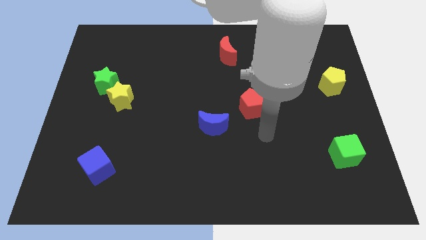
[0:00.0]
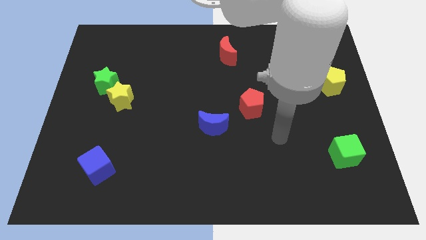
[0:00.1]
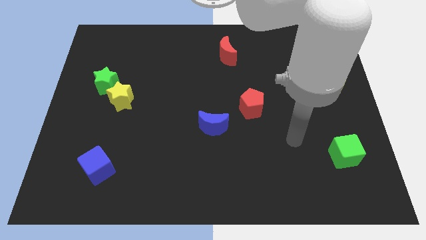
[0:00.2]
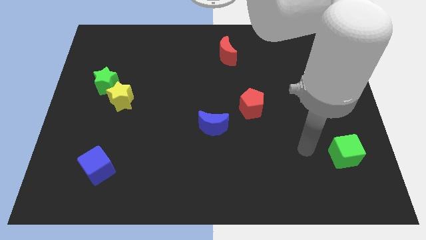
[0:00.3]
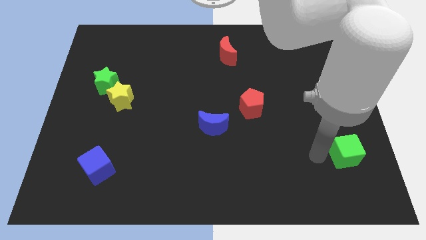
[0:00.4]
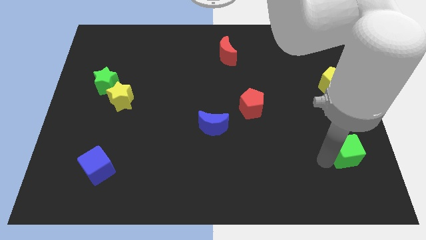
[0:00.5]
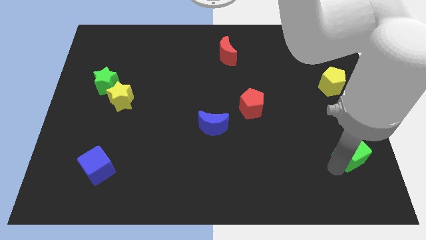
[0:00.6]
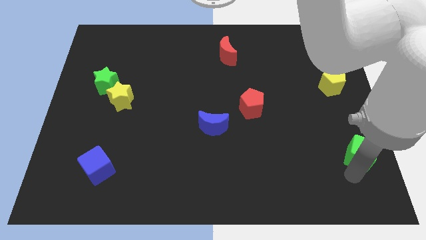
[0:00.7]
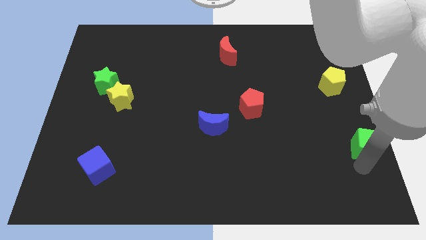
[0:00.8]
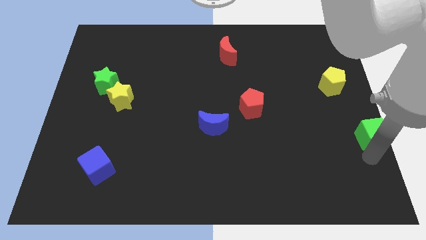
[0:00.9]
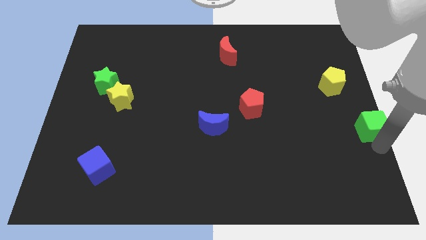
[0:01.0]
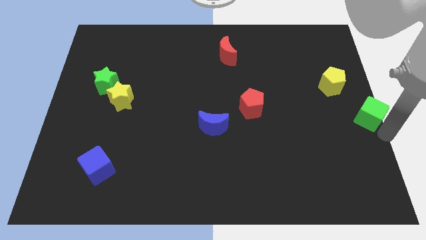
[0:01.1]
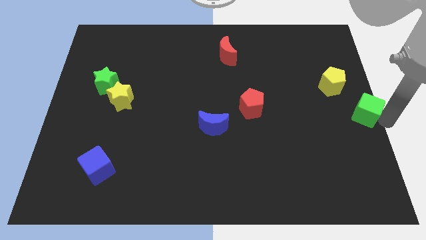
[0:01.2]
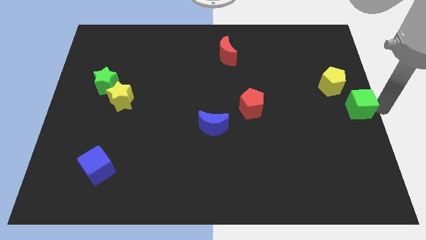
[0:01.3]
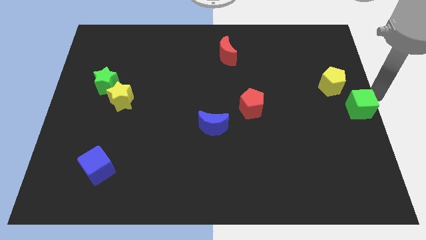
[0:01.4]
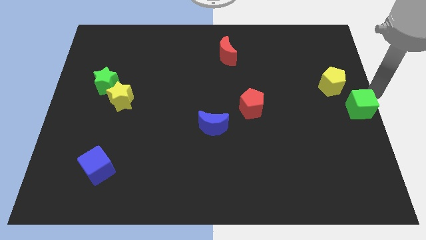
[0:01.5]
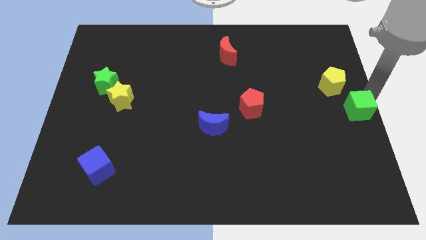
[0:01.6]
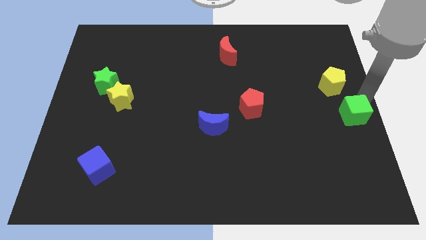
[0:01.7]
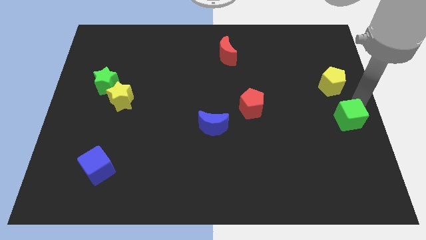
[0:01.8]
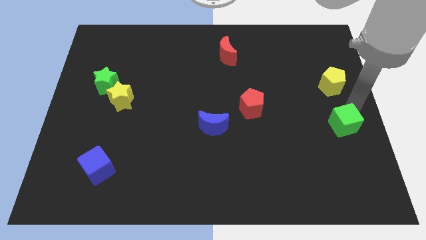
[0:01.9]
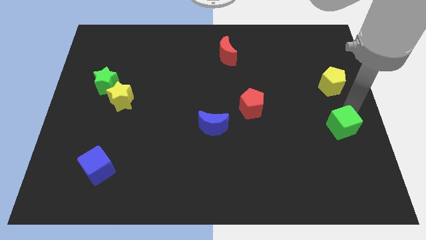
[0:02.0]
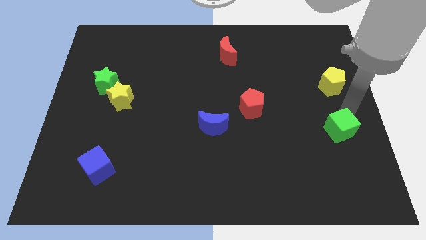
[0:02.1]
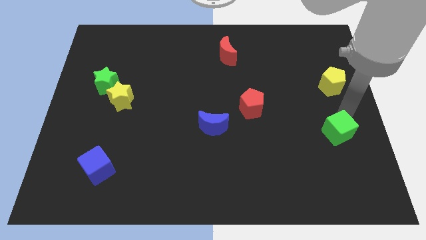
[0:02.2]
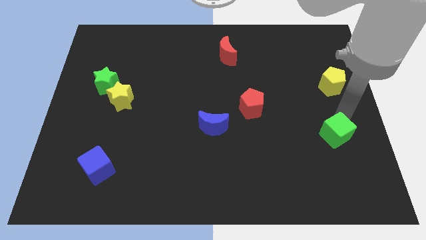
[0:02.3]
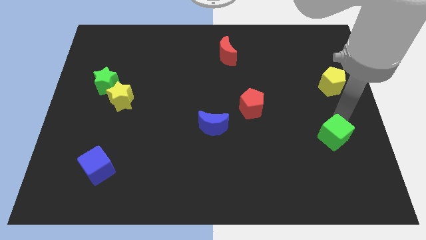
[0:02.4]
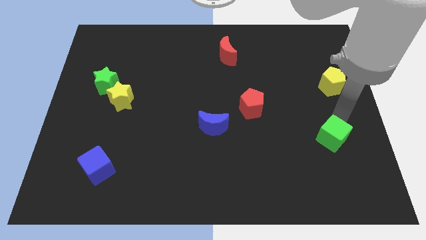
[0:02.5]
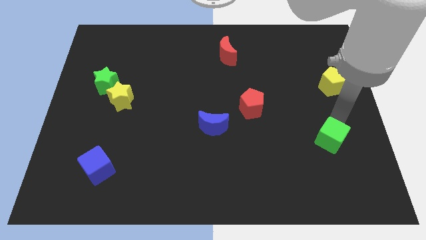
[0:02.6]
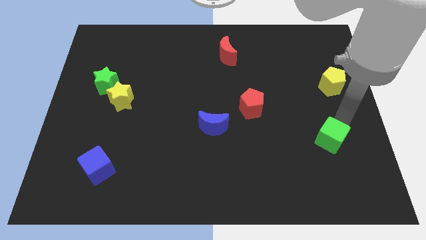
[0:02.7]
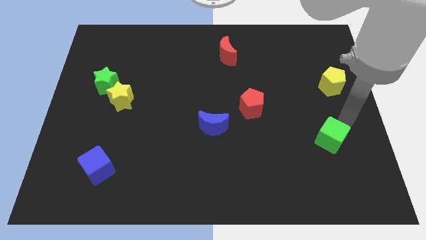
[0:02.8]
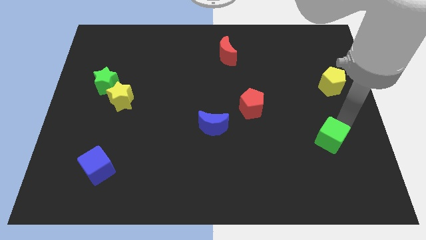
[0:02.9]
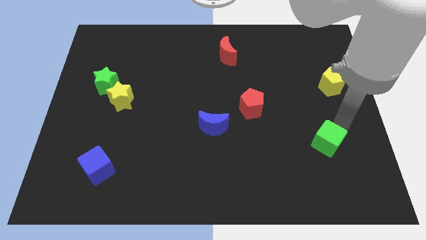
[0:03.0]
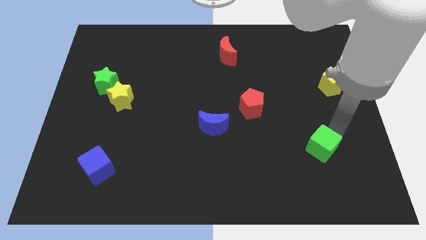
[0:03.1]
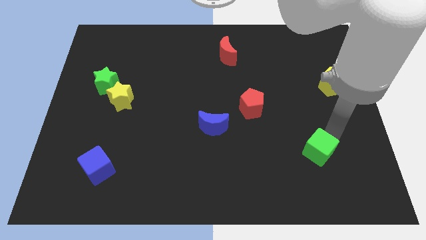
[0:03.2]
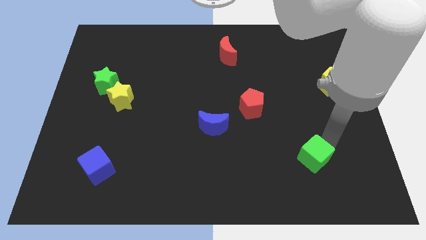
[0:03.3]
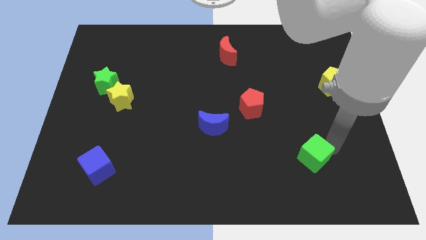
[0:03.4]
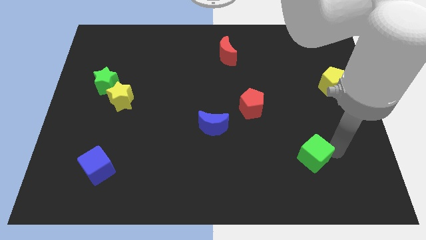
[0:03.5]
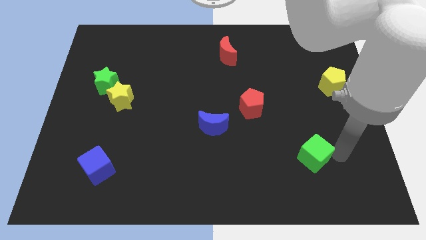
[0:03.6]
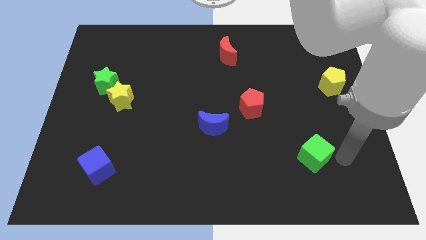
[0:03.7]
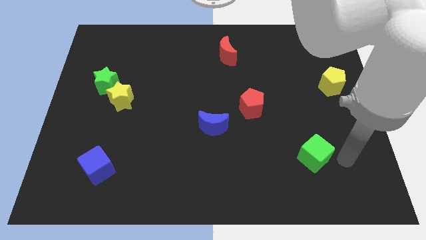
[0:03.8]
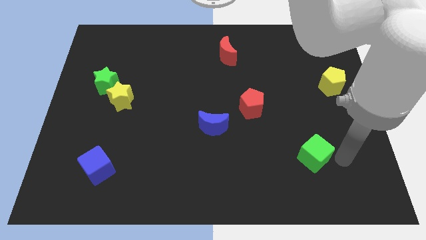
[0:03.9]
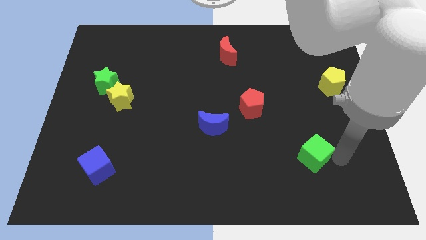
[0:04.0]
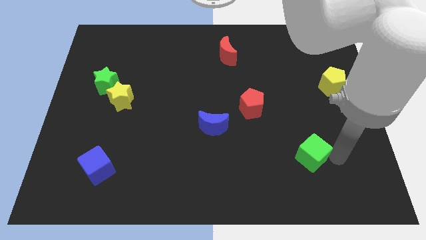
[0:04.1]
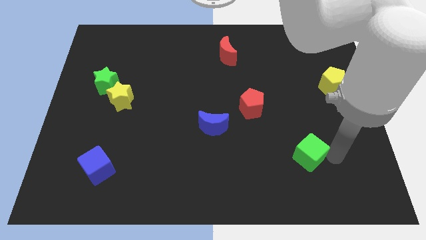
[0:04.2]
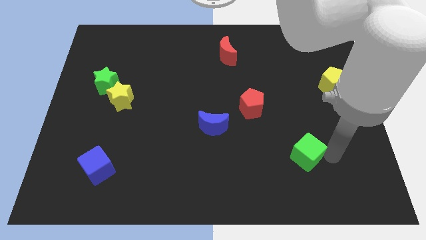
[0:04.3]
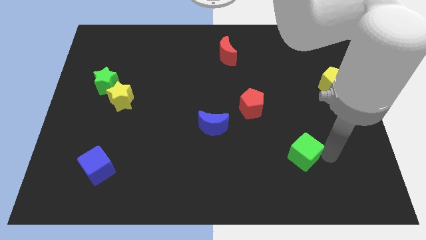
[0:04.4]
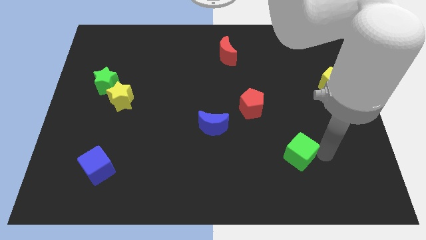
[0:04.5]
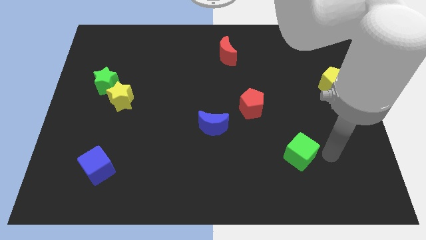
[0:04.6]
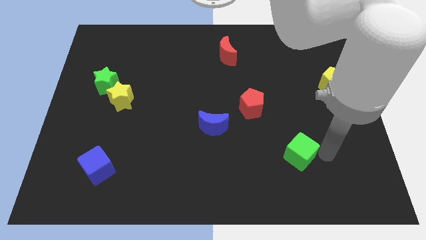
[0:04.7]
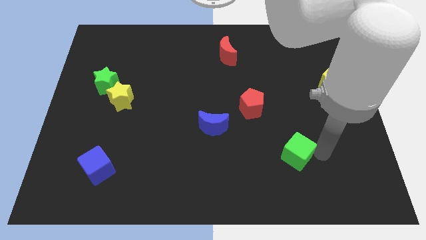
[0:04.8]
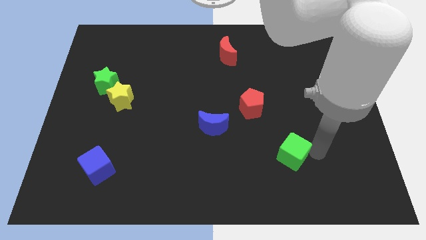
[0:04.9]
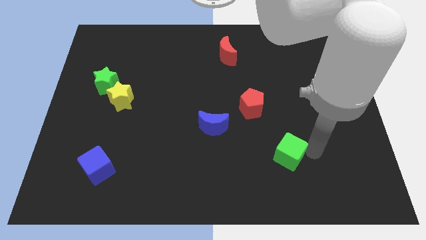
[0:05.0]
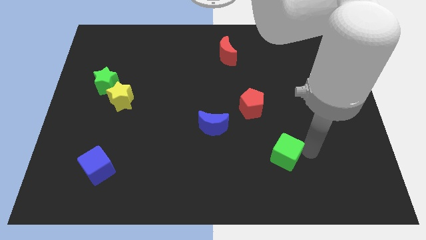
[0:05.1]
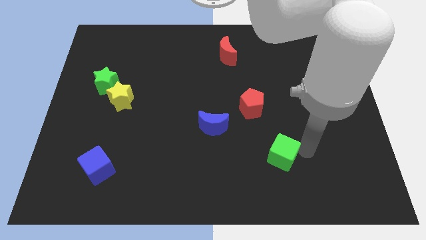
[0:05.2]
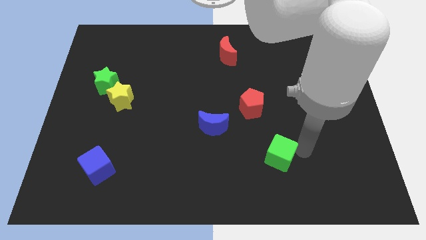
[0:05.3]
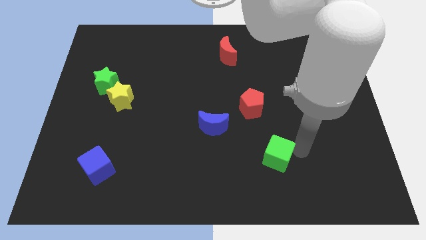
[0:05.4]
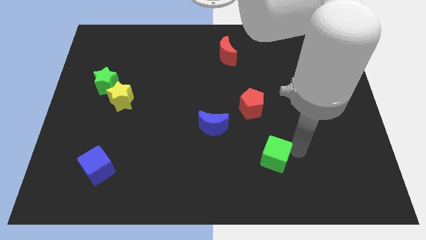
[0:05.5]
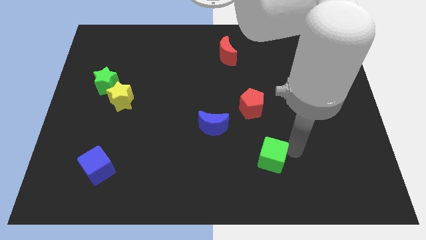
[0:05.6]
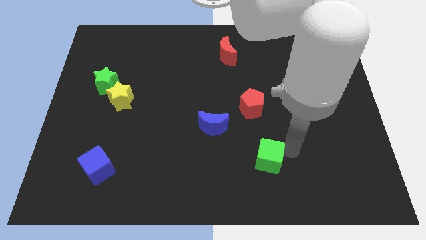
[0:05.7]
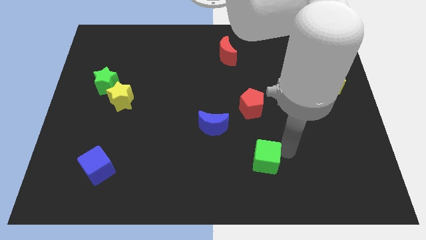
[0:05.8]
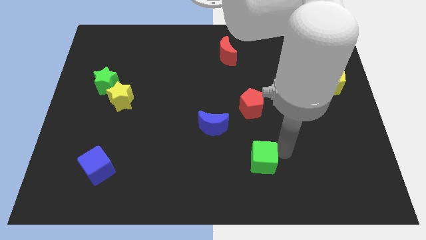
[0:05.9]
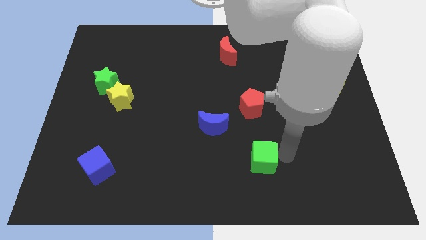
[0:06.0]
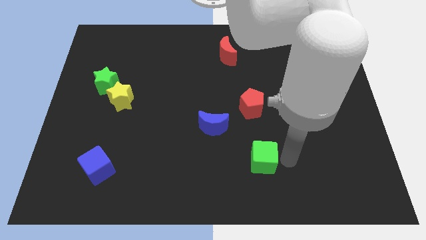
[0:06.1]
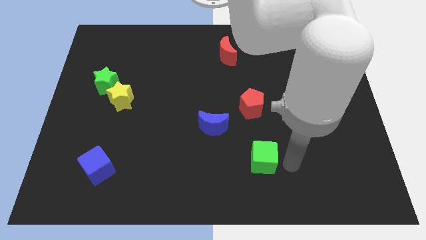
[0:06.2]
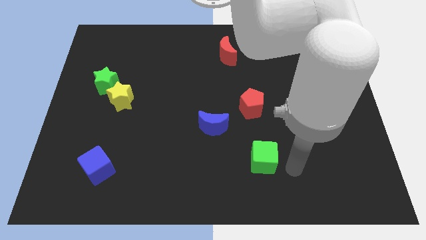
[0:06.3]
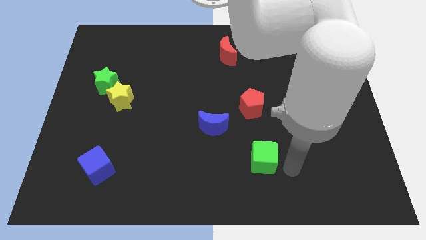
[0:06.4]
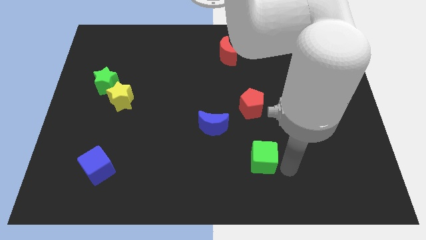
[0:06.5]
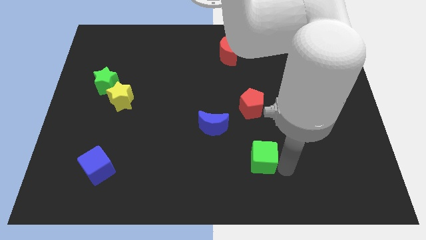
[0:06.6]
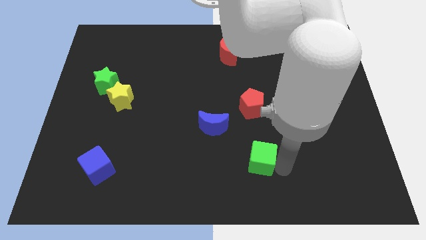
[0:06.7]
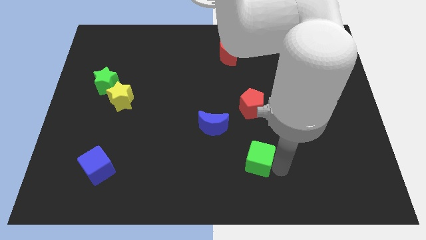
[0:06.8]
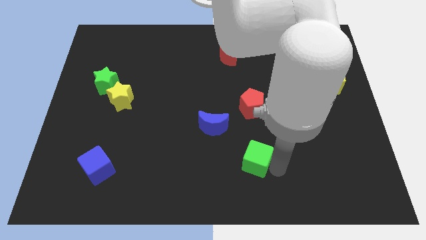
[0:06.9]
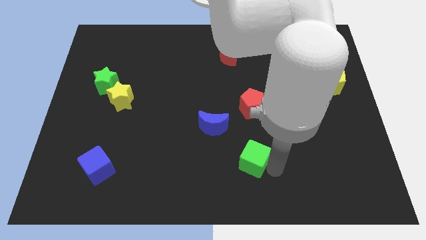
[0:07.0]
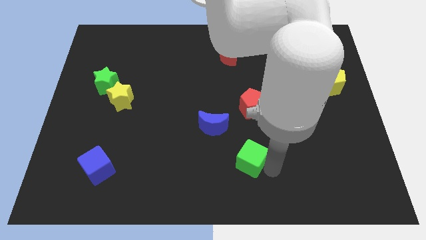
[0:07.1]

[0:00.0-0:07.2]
slide the green cube to the left

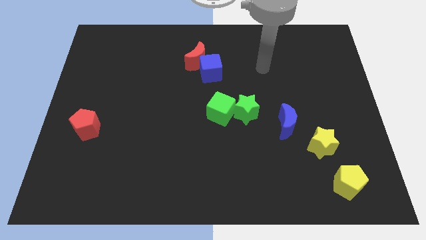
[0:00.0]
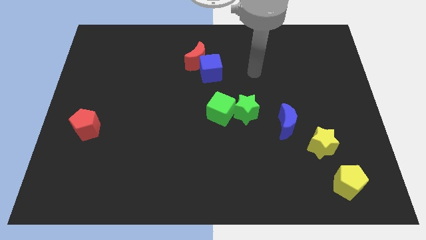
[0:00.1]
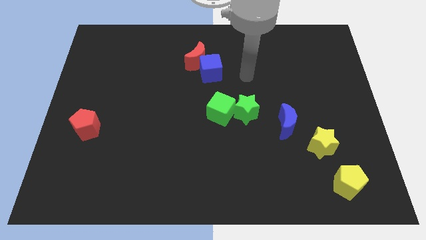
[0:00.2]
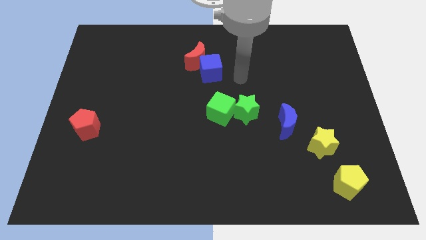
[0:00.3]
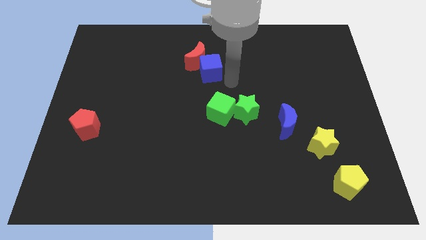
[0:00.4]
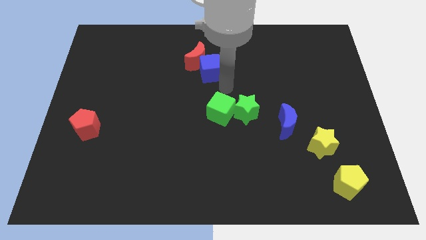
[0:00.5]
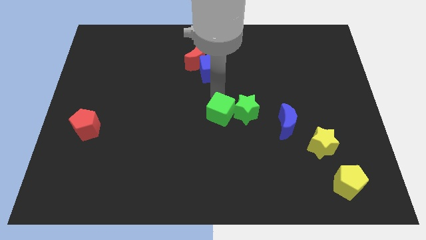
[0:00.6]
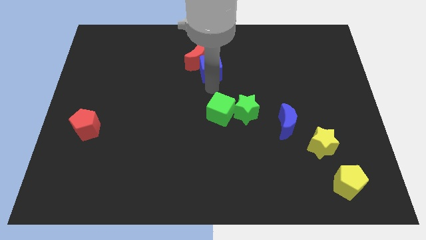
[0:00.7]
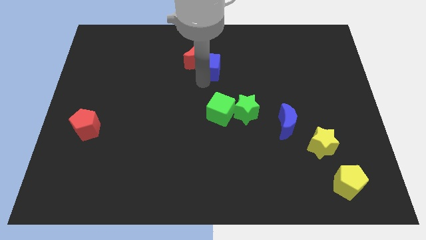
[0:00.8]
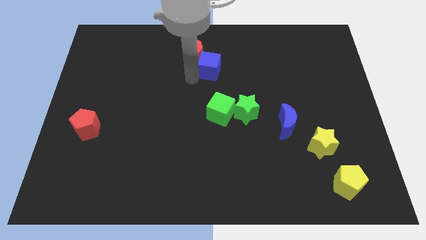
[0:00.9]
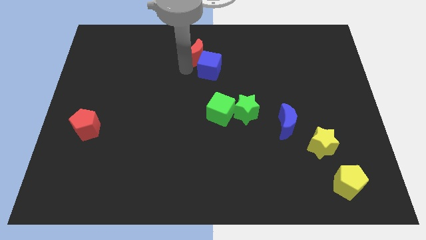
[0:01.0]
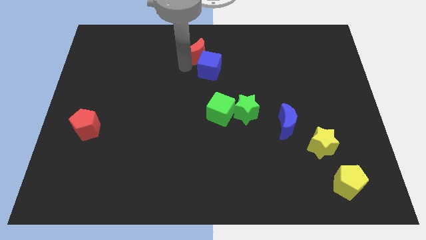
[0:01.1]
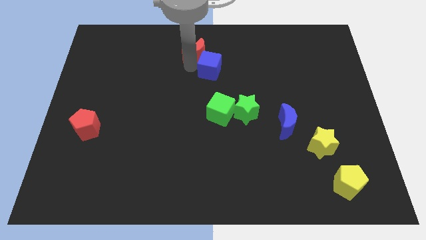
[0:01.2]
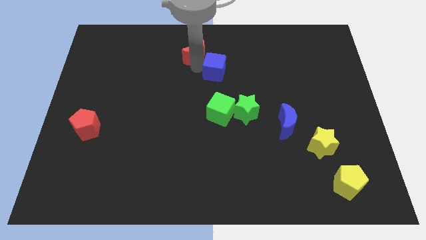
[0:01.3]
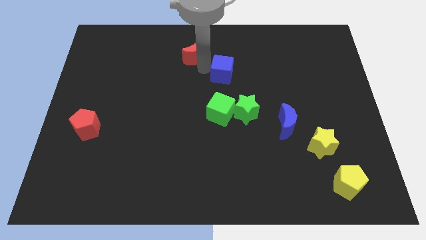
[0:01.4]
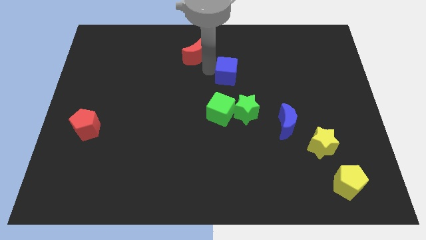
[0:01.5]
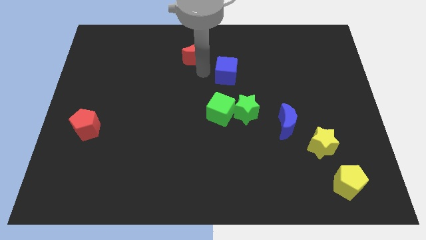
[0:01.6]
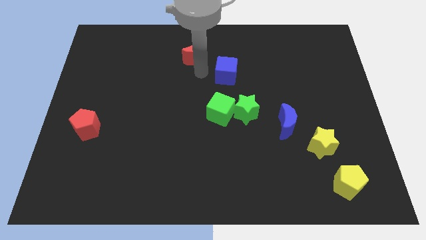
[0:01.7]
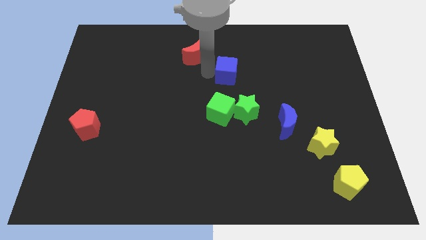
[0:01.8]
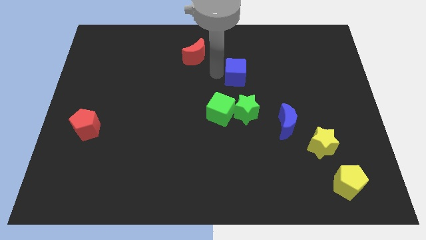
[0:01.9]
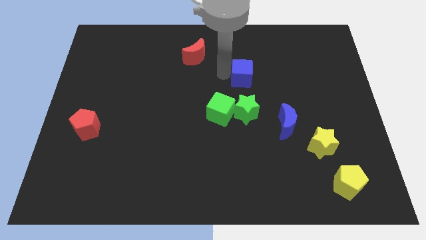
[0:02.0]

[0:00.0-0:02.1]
move the blue cube a bit right
